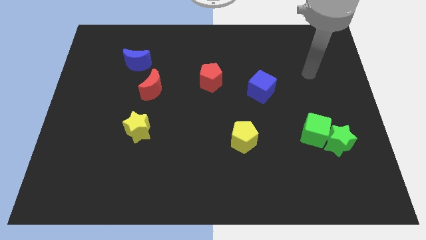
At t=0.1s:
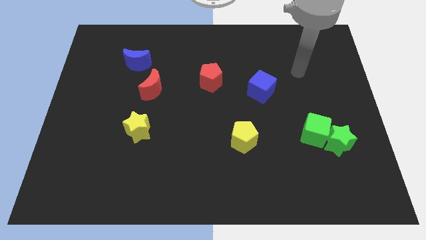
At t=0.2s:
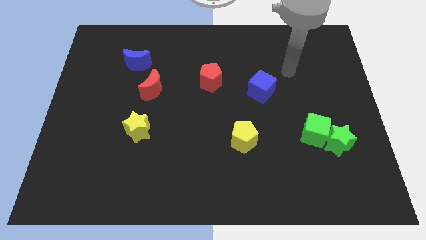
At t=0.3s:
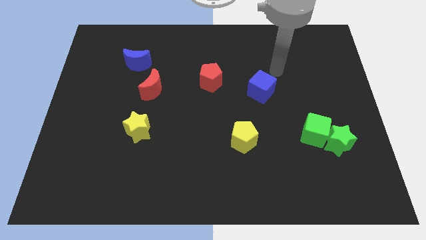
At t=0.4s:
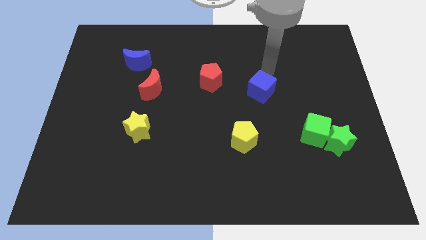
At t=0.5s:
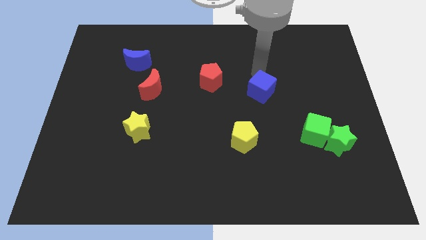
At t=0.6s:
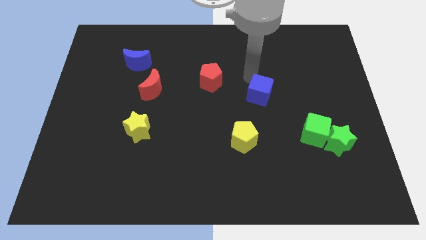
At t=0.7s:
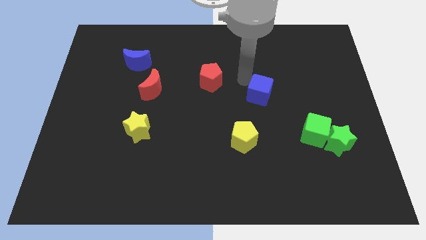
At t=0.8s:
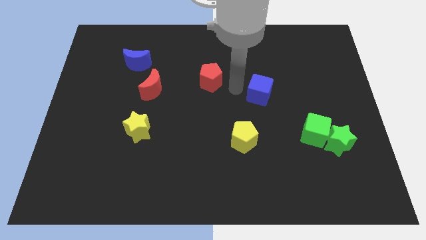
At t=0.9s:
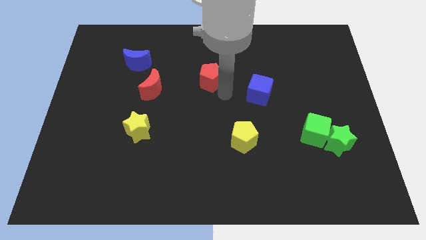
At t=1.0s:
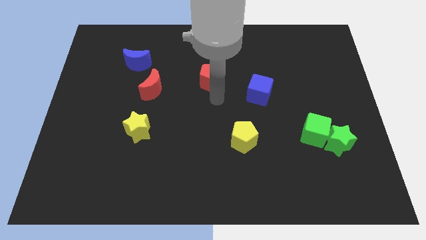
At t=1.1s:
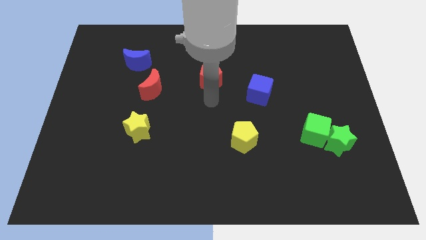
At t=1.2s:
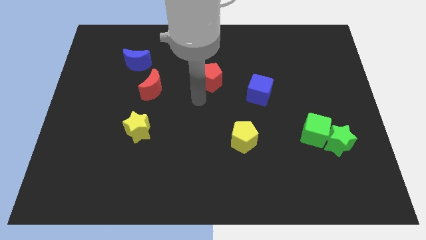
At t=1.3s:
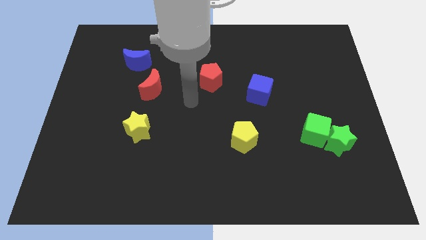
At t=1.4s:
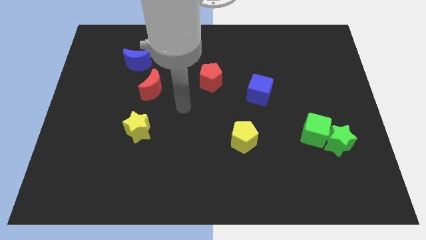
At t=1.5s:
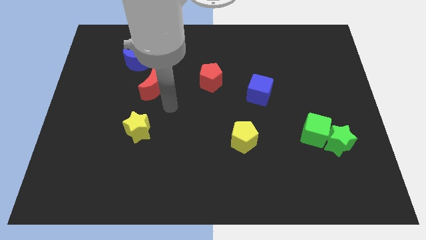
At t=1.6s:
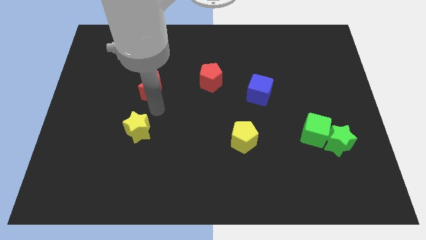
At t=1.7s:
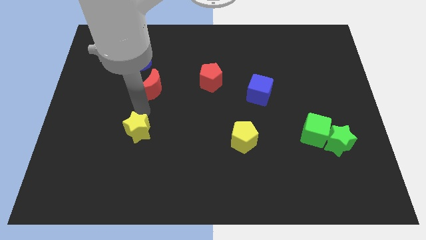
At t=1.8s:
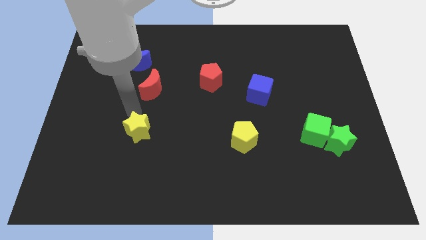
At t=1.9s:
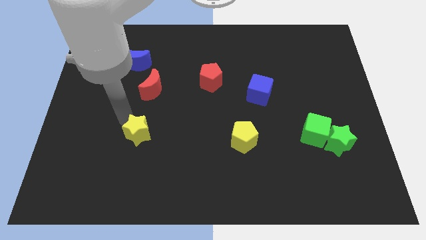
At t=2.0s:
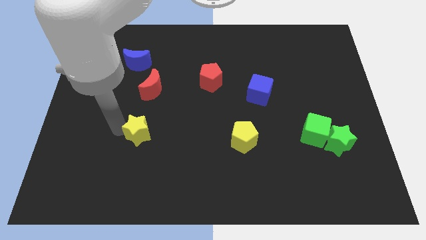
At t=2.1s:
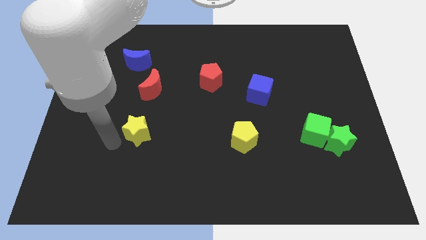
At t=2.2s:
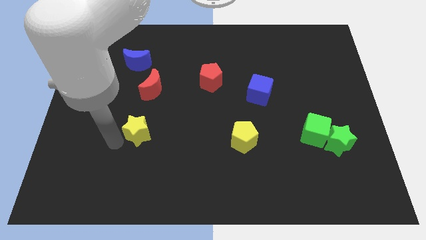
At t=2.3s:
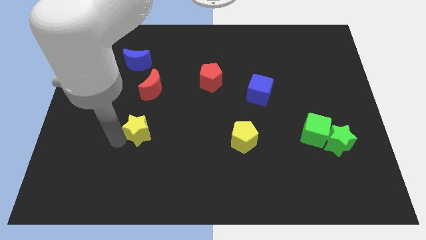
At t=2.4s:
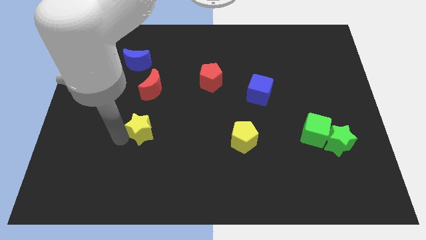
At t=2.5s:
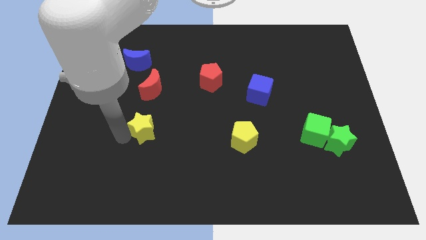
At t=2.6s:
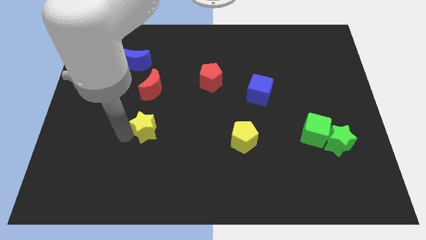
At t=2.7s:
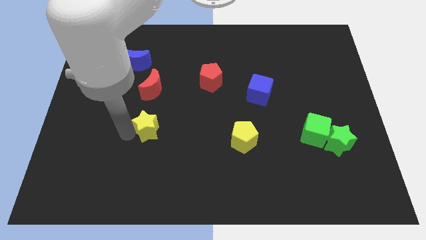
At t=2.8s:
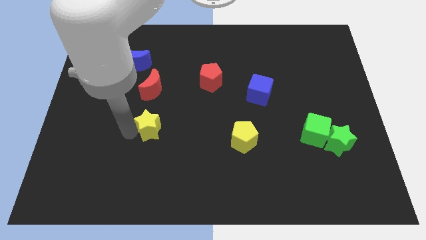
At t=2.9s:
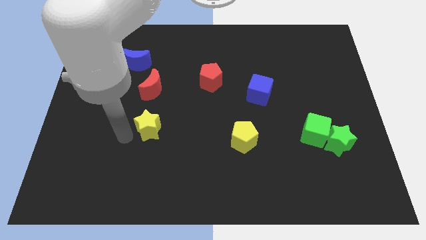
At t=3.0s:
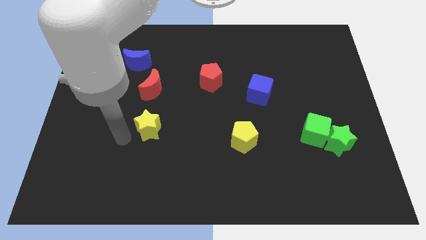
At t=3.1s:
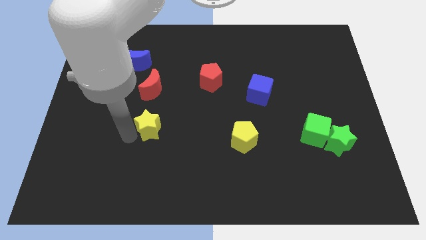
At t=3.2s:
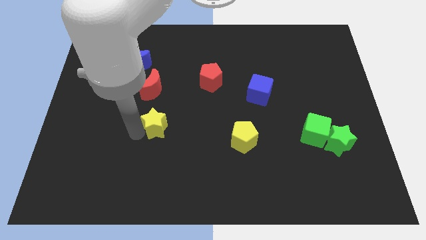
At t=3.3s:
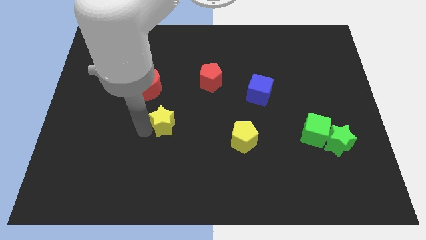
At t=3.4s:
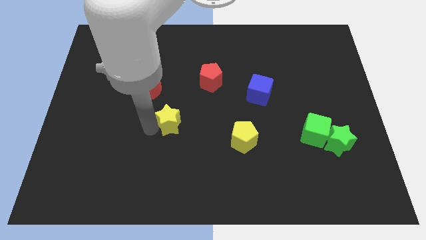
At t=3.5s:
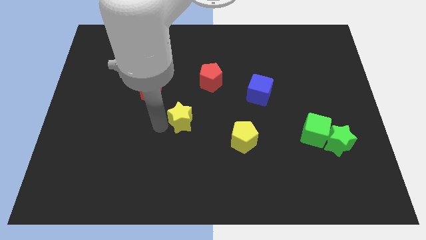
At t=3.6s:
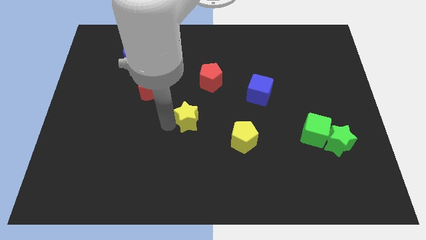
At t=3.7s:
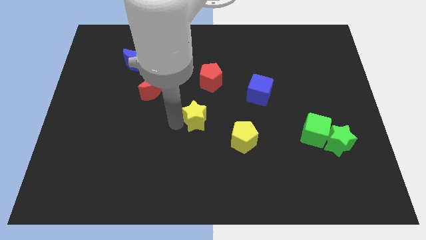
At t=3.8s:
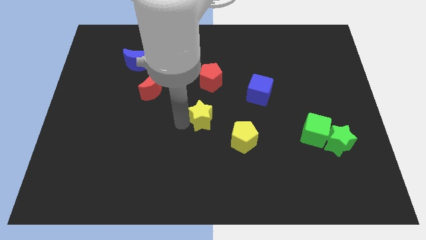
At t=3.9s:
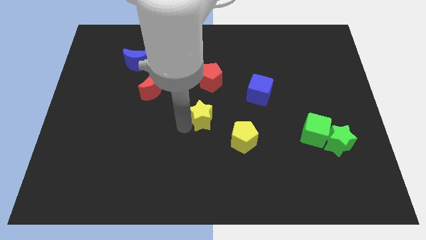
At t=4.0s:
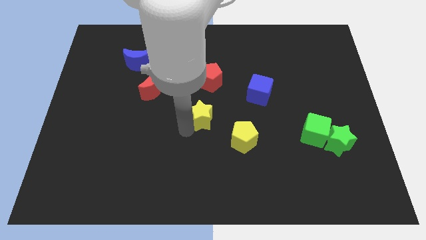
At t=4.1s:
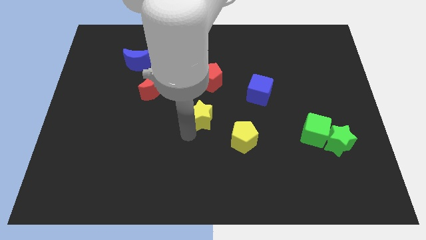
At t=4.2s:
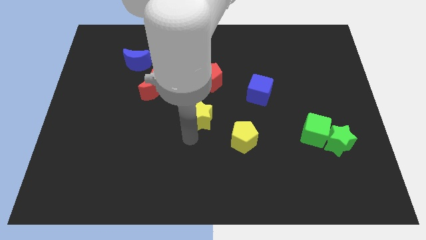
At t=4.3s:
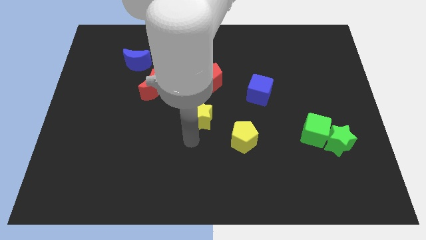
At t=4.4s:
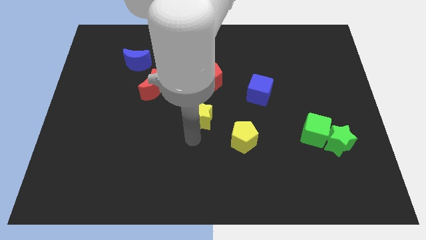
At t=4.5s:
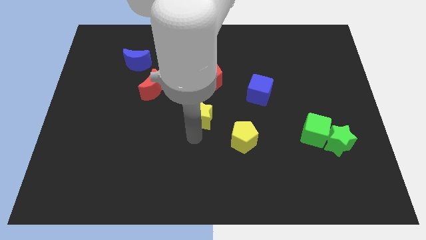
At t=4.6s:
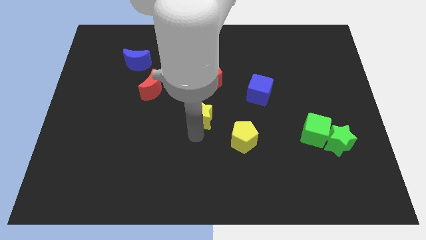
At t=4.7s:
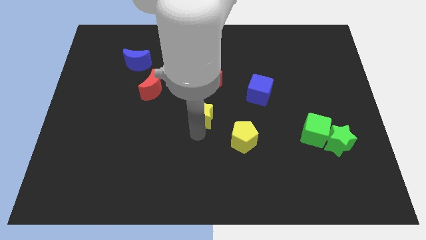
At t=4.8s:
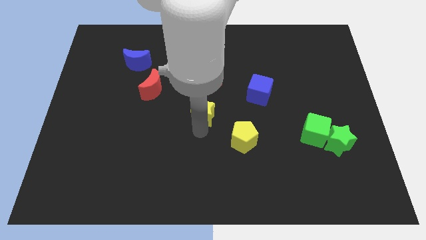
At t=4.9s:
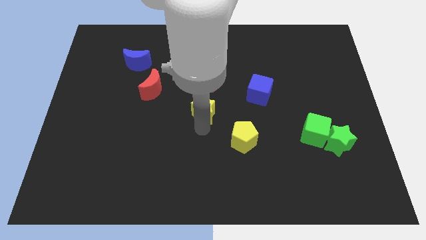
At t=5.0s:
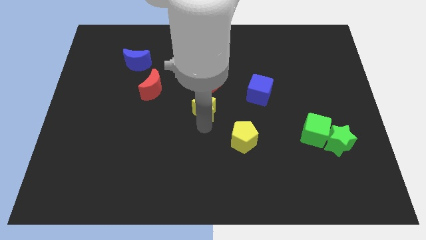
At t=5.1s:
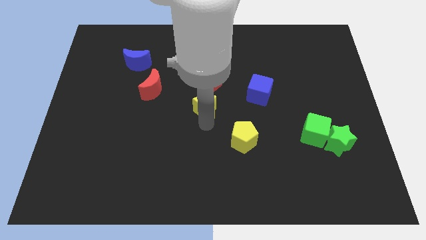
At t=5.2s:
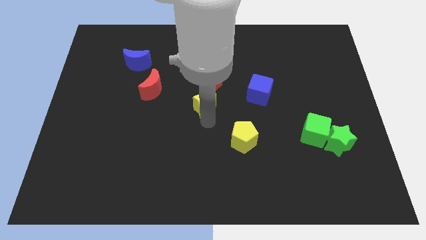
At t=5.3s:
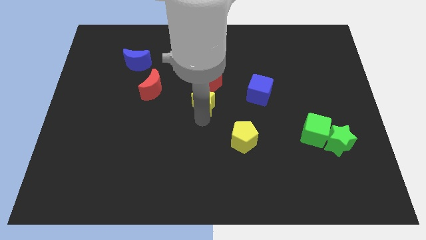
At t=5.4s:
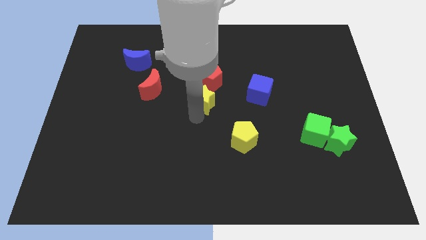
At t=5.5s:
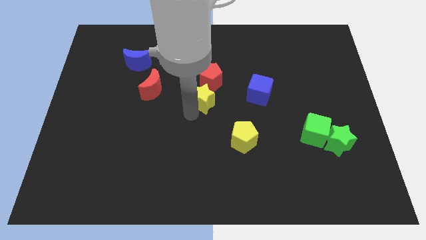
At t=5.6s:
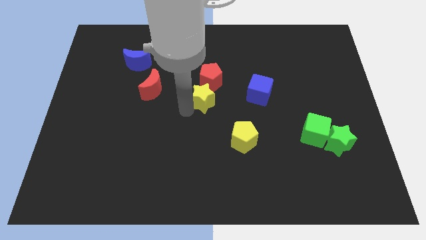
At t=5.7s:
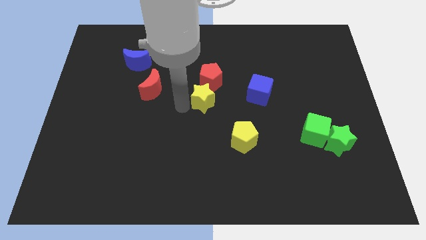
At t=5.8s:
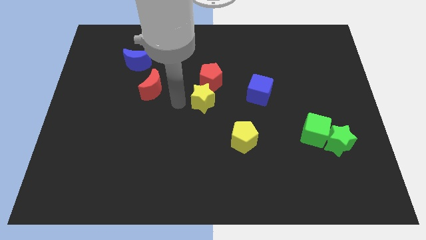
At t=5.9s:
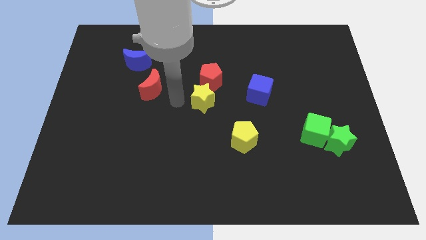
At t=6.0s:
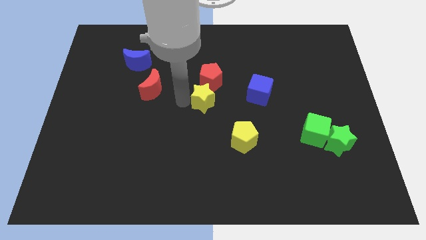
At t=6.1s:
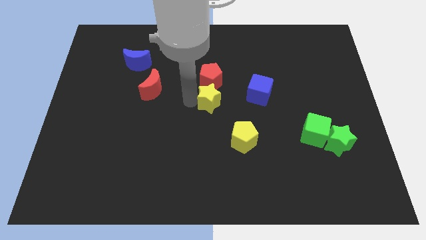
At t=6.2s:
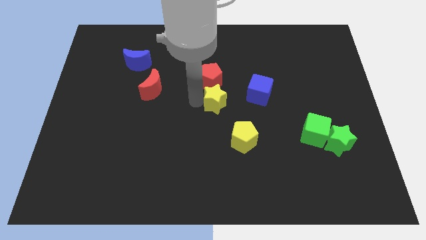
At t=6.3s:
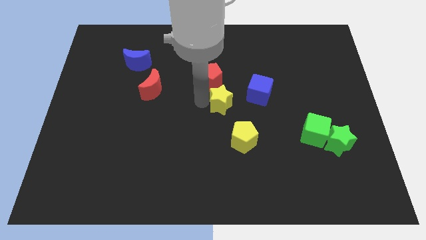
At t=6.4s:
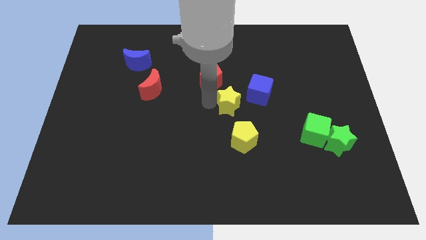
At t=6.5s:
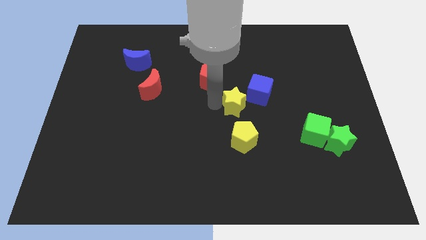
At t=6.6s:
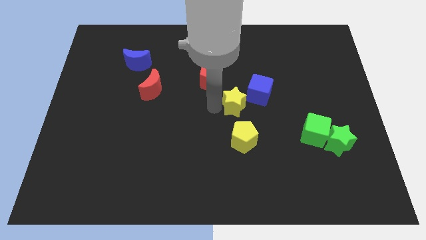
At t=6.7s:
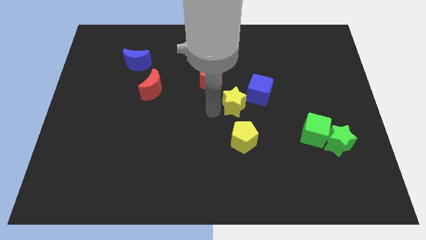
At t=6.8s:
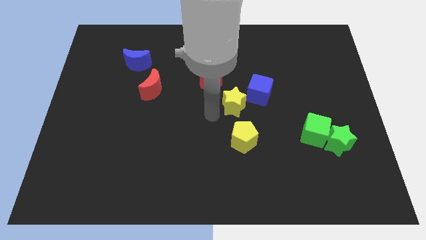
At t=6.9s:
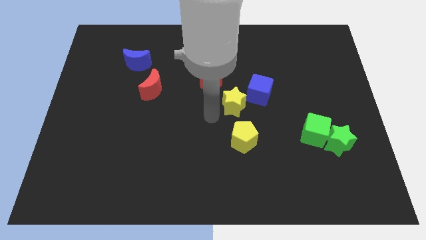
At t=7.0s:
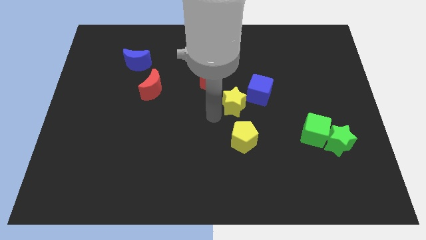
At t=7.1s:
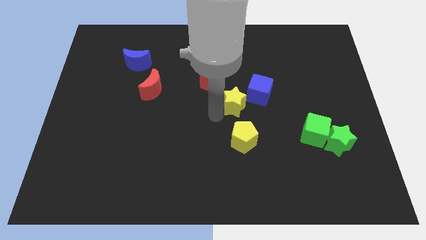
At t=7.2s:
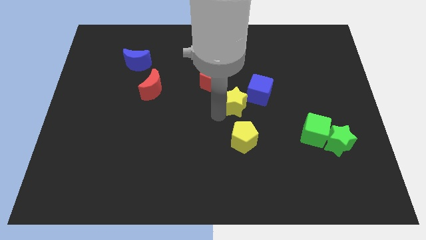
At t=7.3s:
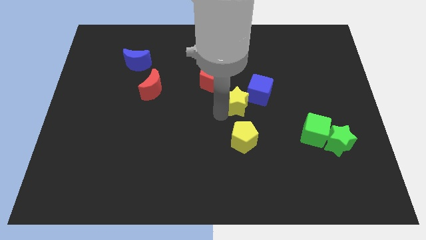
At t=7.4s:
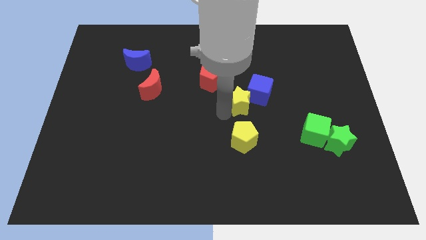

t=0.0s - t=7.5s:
slide the yellow star next to the blue cube

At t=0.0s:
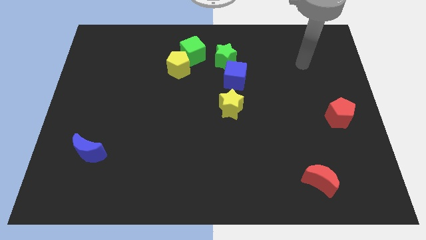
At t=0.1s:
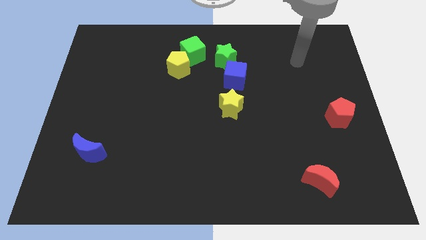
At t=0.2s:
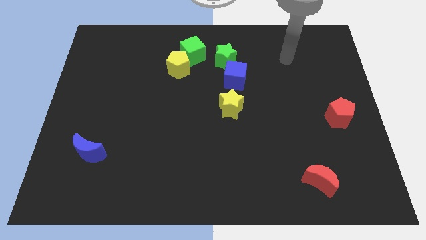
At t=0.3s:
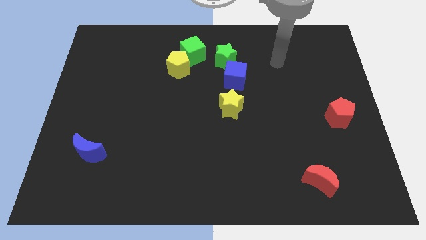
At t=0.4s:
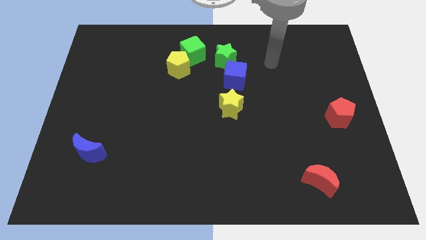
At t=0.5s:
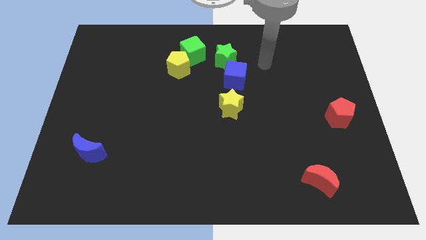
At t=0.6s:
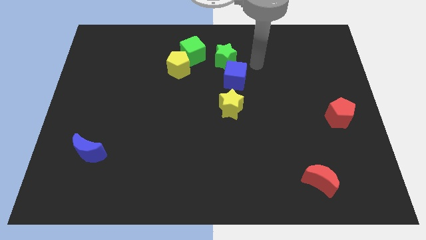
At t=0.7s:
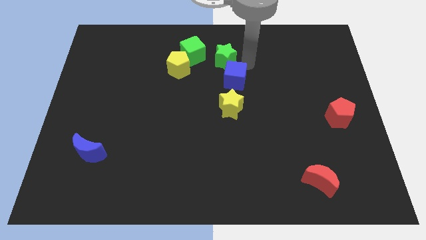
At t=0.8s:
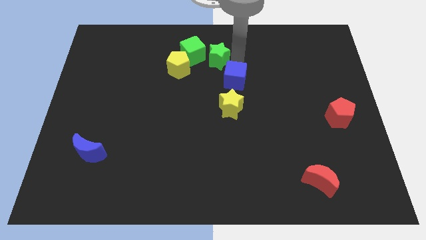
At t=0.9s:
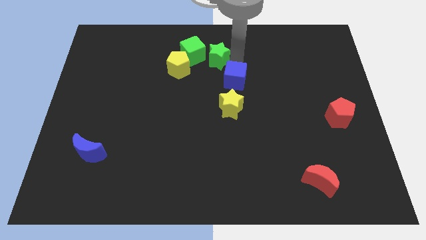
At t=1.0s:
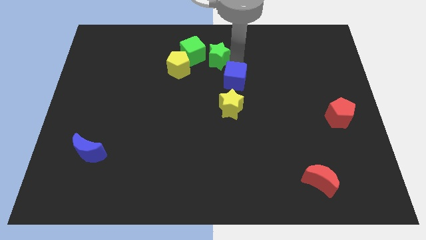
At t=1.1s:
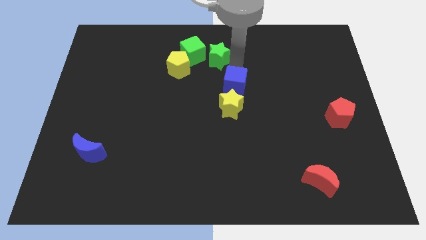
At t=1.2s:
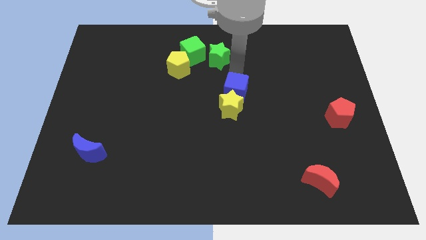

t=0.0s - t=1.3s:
put the blue cube towards the yellow star
